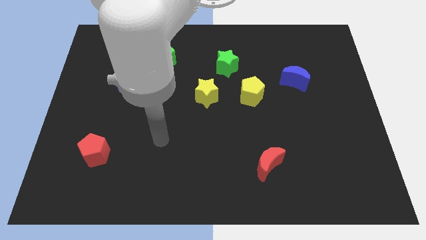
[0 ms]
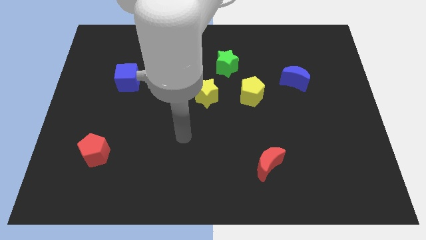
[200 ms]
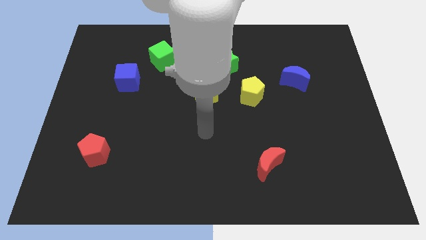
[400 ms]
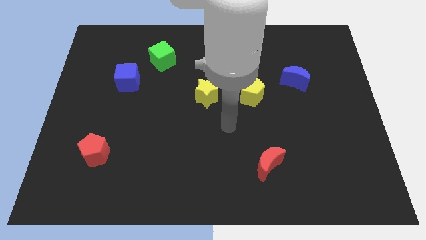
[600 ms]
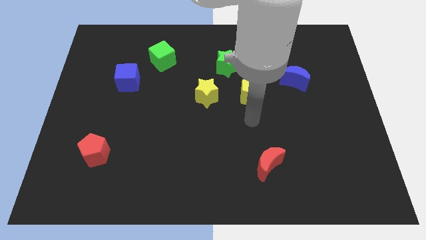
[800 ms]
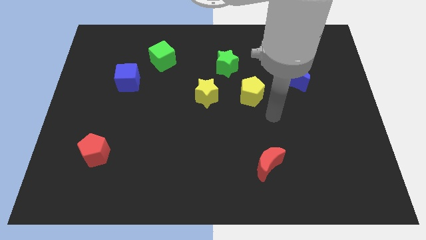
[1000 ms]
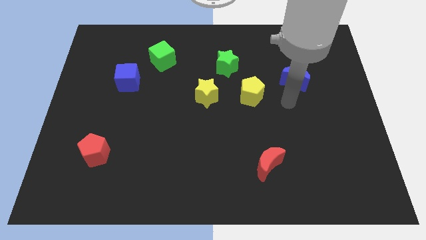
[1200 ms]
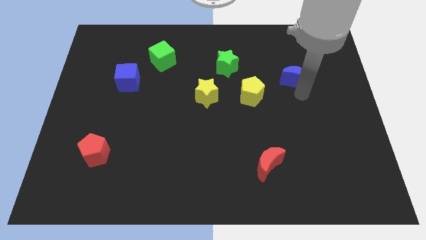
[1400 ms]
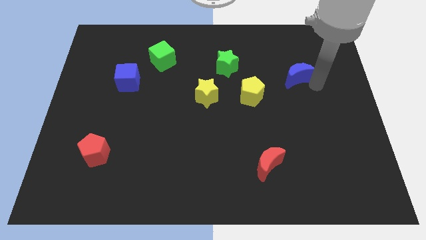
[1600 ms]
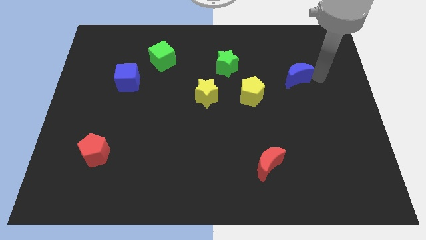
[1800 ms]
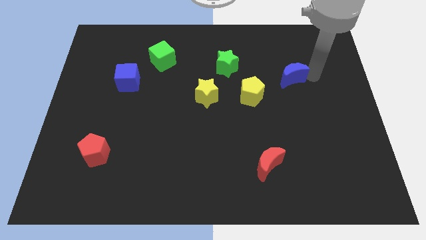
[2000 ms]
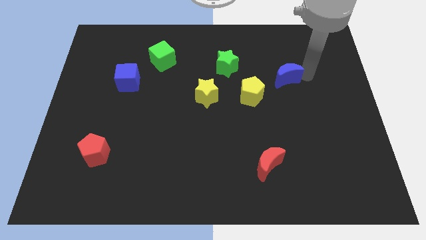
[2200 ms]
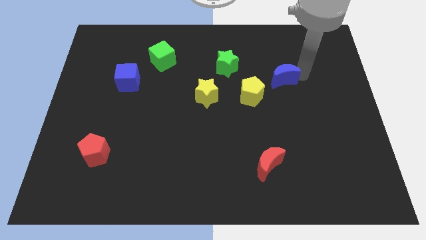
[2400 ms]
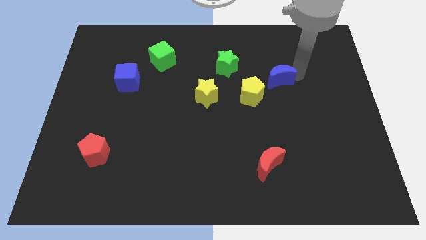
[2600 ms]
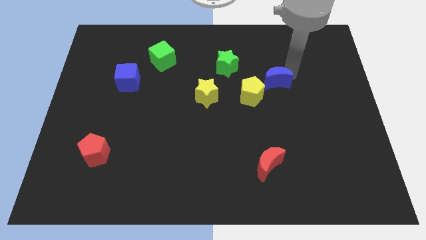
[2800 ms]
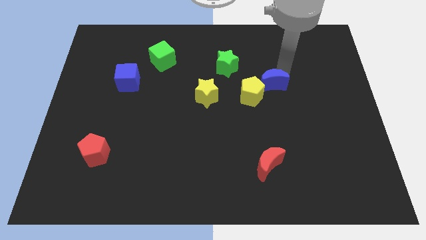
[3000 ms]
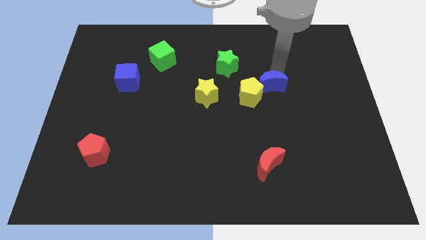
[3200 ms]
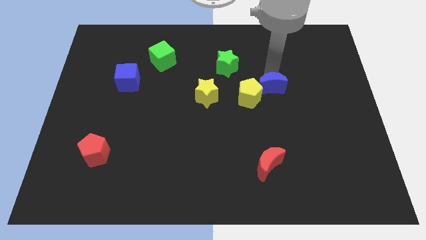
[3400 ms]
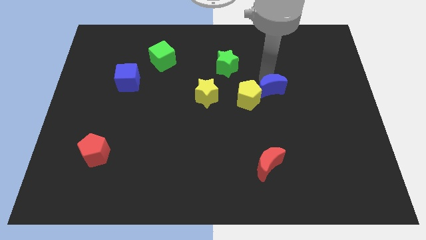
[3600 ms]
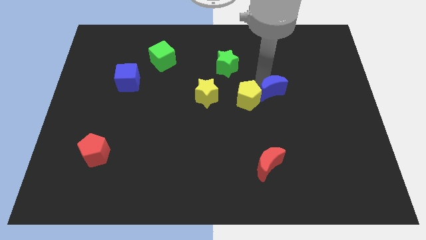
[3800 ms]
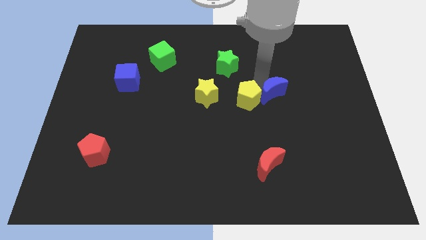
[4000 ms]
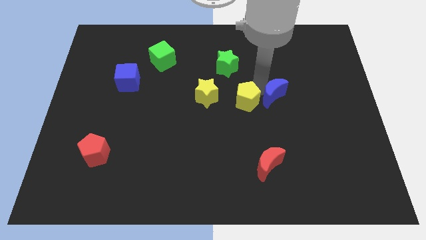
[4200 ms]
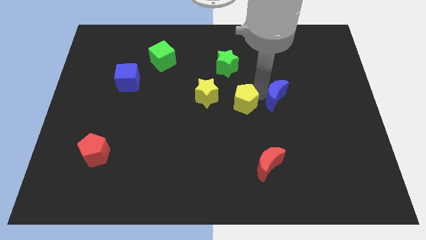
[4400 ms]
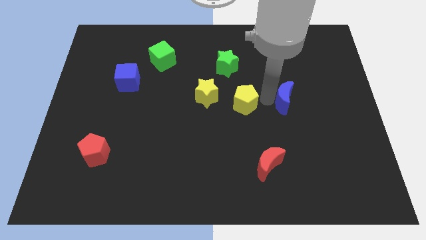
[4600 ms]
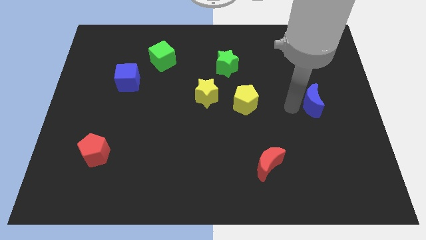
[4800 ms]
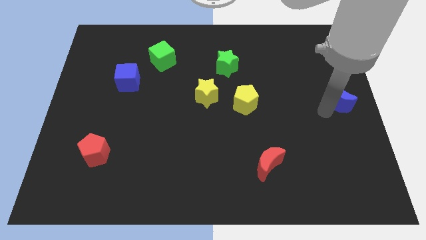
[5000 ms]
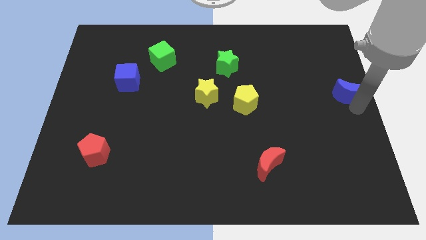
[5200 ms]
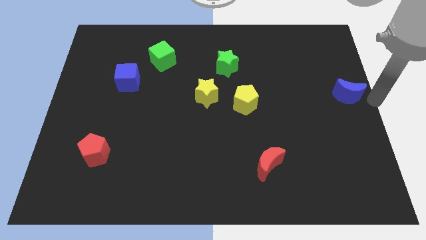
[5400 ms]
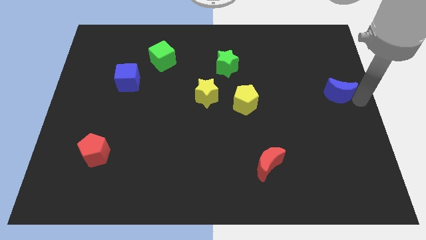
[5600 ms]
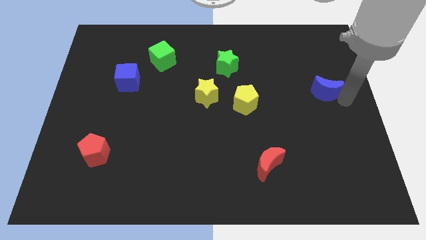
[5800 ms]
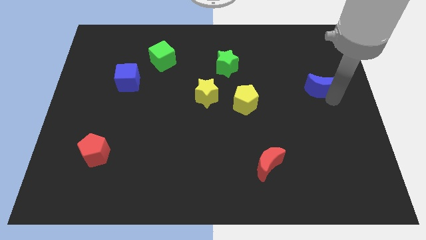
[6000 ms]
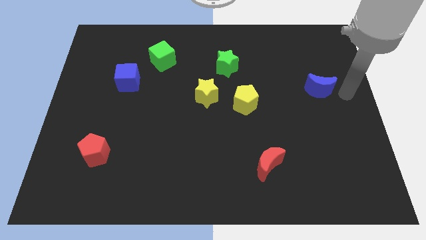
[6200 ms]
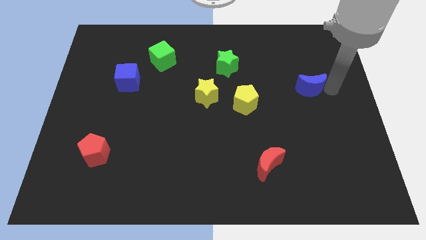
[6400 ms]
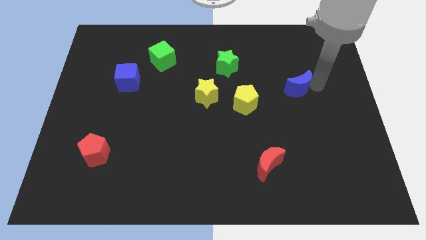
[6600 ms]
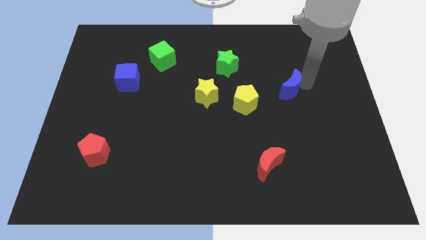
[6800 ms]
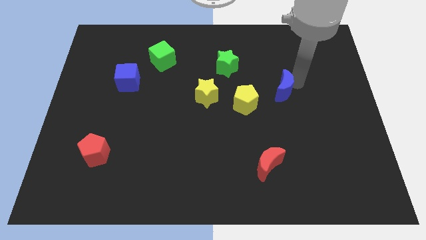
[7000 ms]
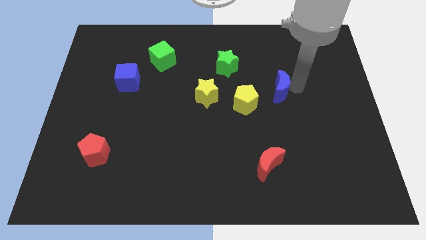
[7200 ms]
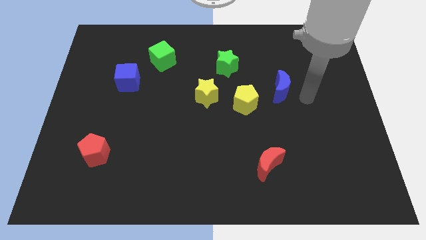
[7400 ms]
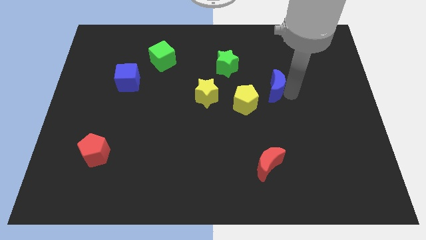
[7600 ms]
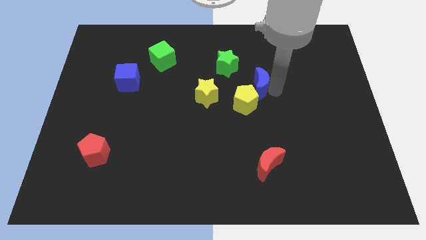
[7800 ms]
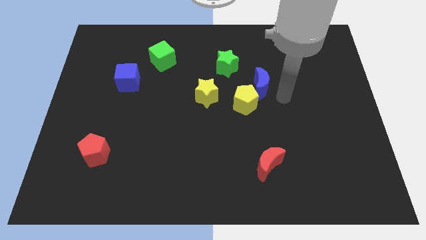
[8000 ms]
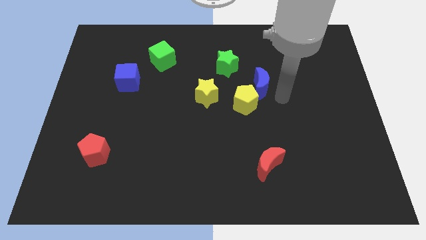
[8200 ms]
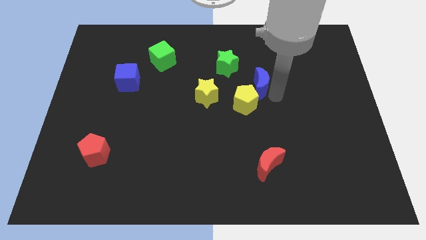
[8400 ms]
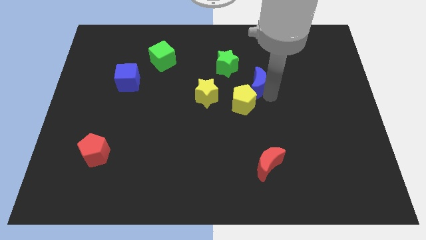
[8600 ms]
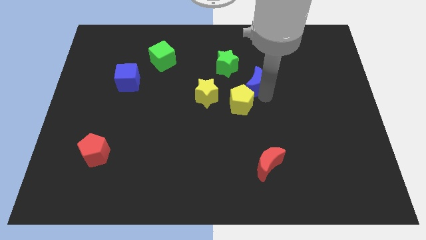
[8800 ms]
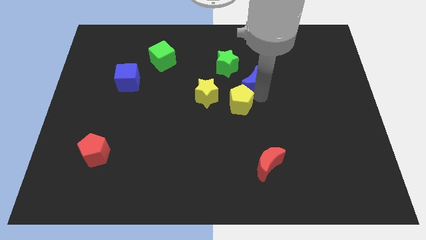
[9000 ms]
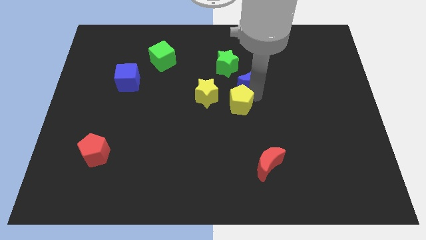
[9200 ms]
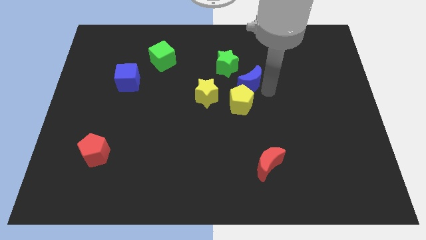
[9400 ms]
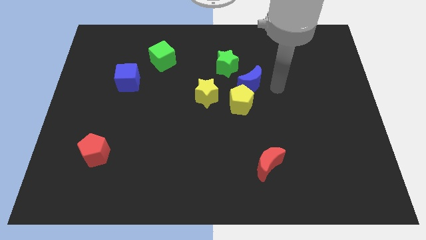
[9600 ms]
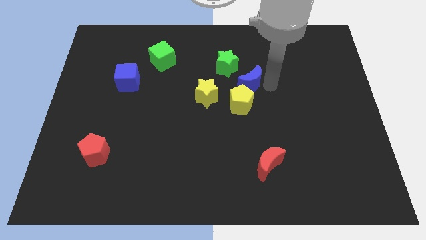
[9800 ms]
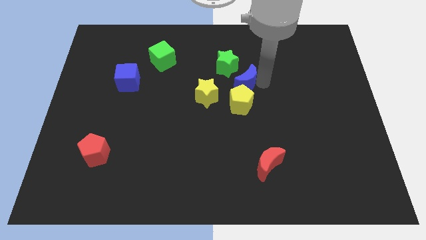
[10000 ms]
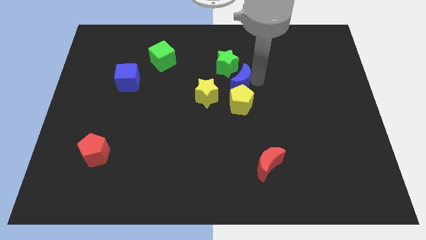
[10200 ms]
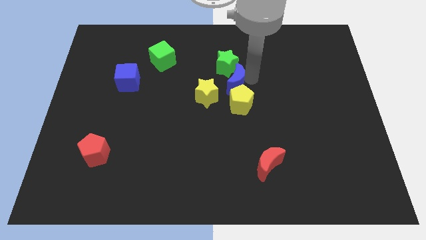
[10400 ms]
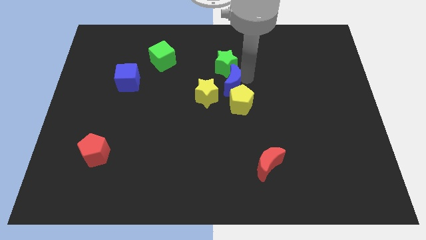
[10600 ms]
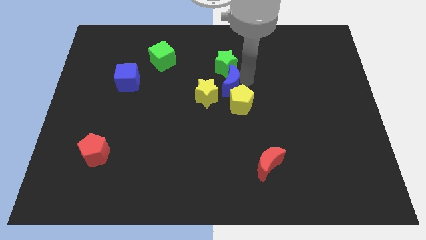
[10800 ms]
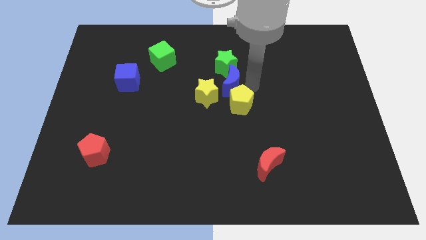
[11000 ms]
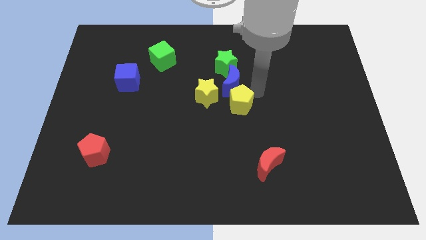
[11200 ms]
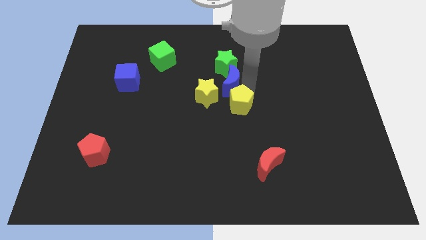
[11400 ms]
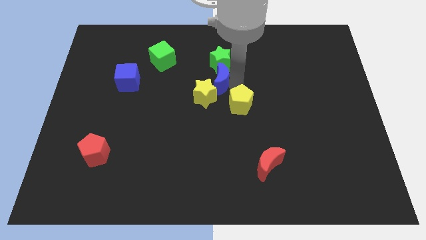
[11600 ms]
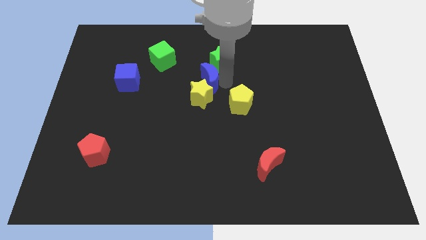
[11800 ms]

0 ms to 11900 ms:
slide the blue moon to the left

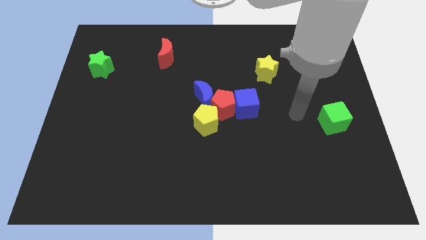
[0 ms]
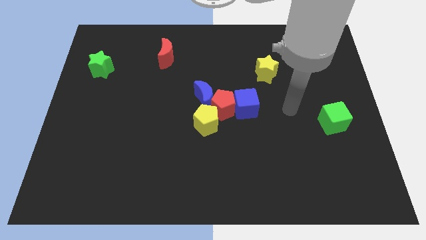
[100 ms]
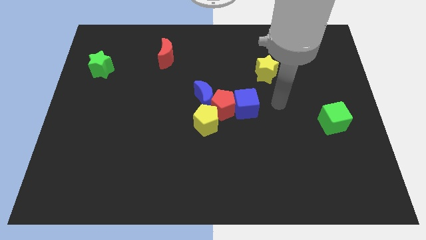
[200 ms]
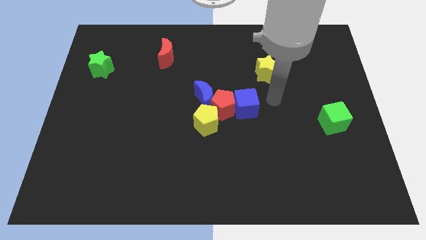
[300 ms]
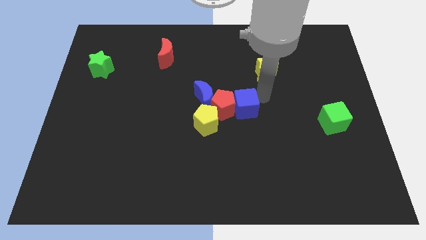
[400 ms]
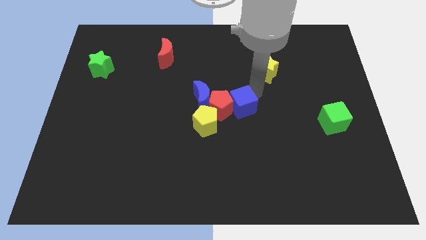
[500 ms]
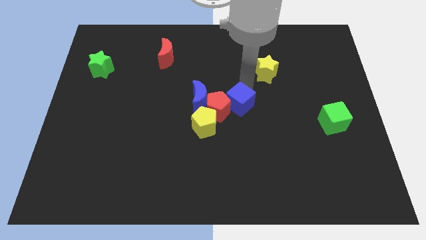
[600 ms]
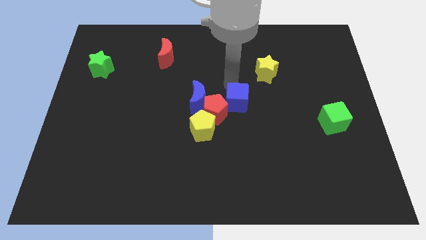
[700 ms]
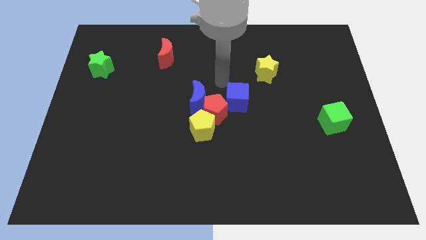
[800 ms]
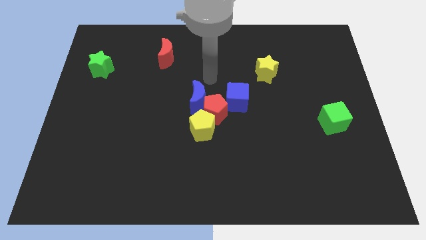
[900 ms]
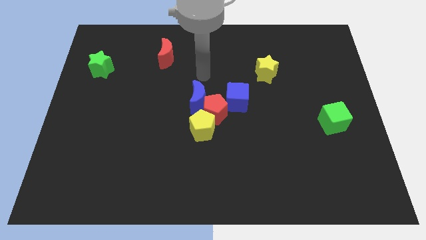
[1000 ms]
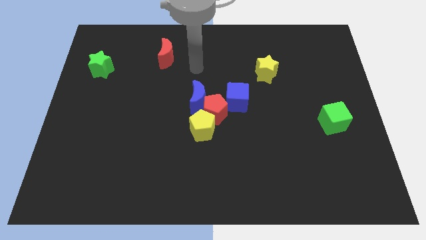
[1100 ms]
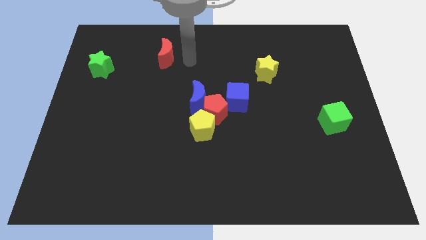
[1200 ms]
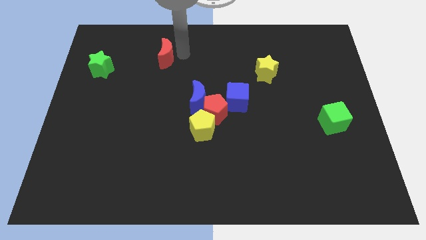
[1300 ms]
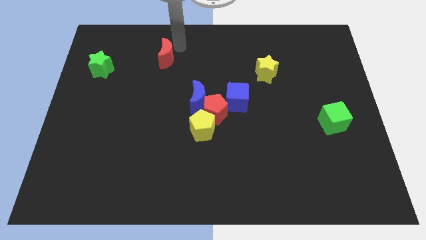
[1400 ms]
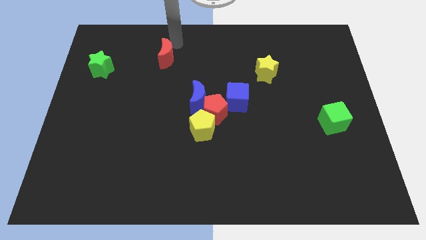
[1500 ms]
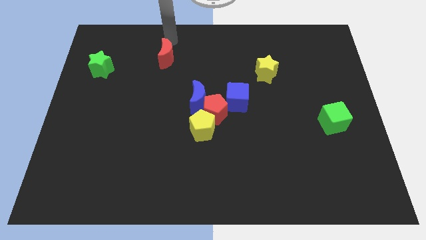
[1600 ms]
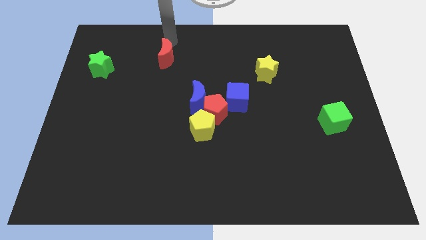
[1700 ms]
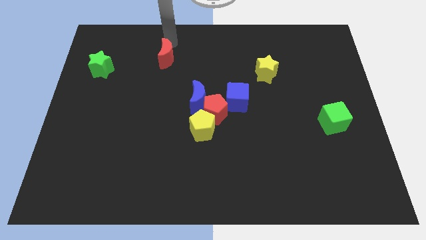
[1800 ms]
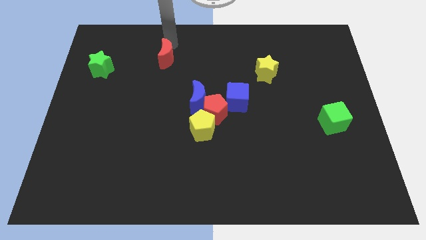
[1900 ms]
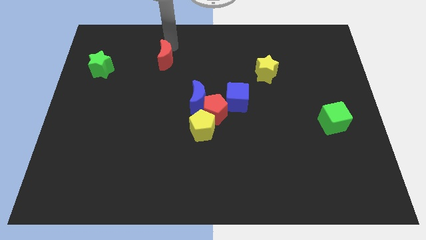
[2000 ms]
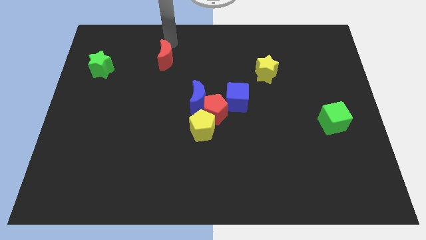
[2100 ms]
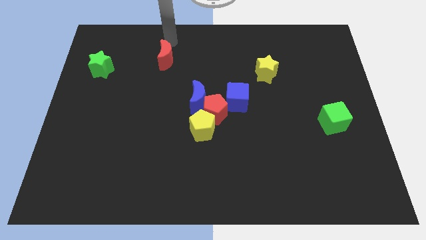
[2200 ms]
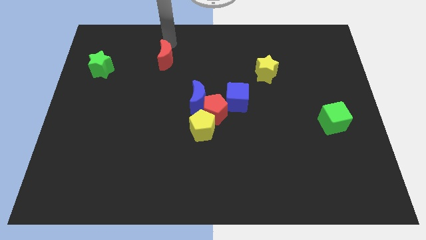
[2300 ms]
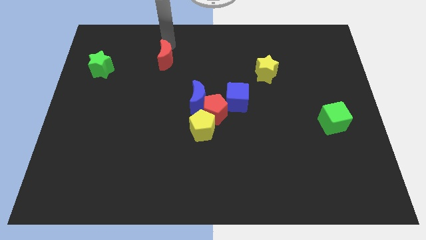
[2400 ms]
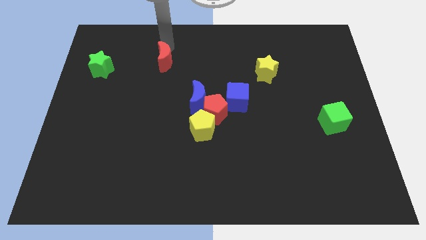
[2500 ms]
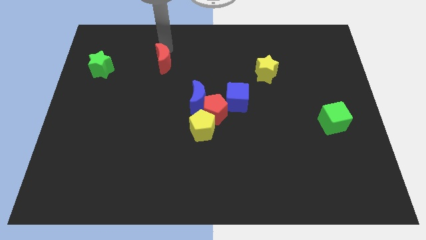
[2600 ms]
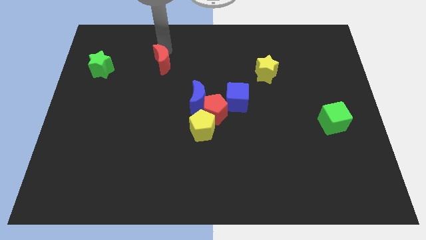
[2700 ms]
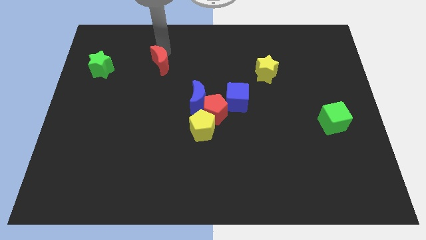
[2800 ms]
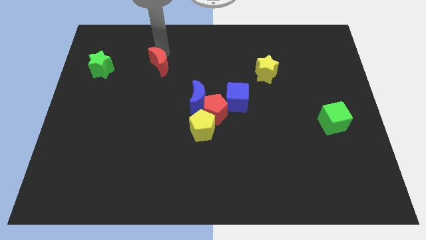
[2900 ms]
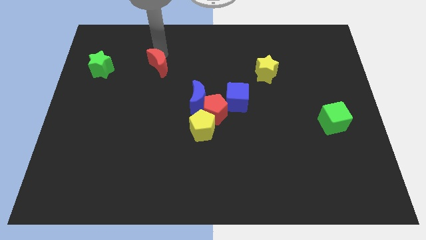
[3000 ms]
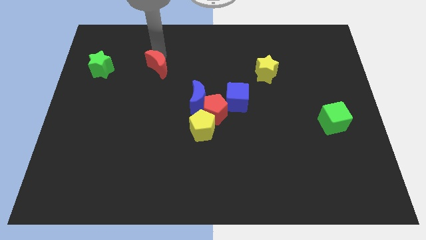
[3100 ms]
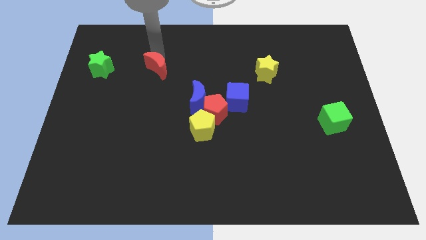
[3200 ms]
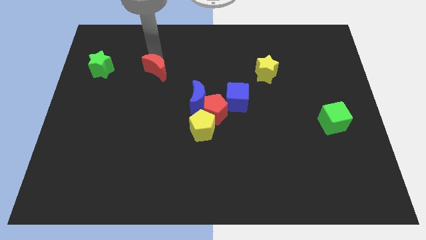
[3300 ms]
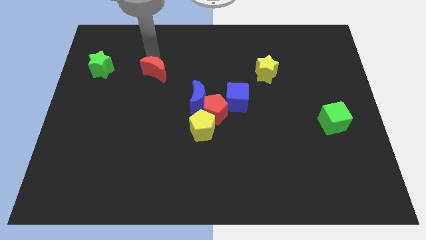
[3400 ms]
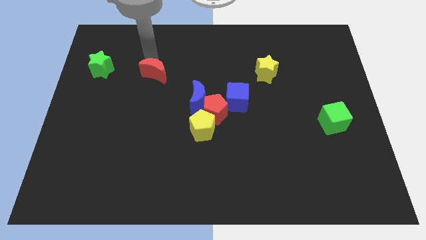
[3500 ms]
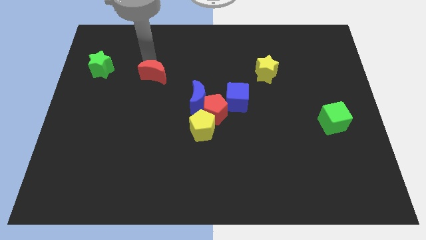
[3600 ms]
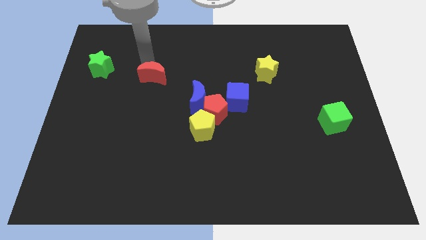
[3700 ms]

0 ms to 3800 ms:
slide the red moon somewhat down
